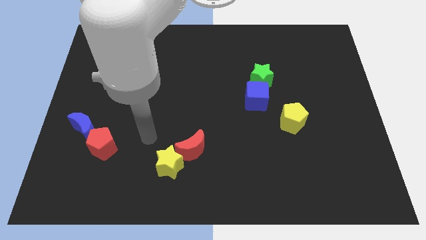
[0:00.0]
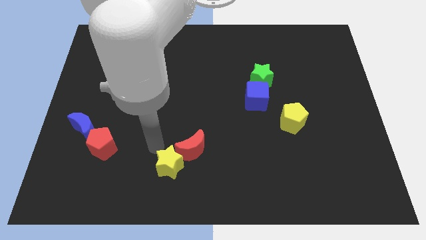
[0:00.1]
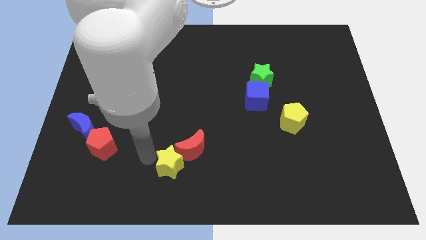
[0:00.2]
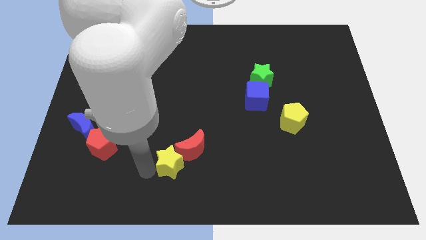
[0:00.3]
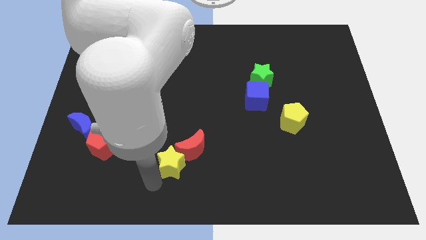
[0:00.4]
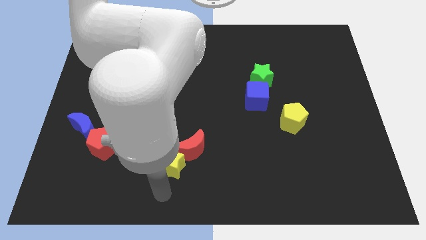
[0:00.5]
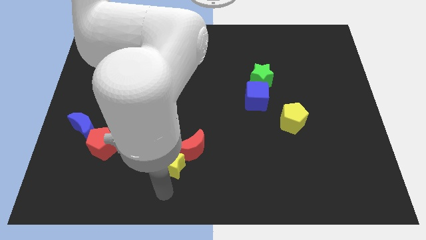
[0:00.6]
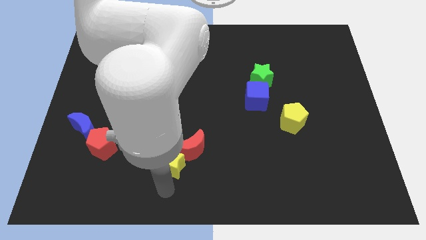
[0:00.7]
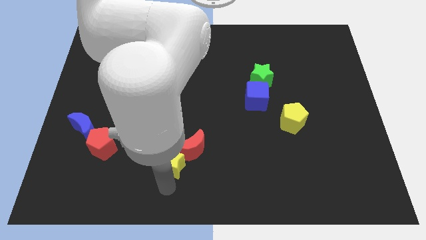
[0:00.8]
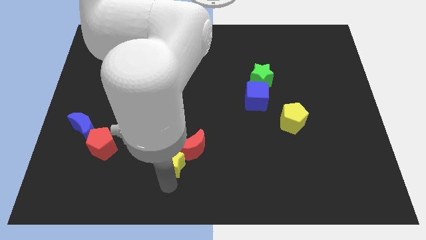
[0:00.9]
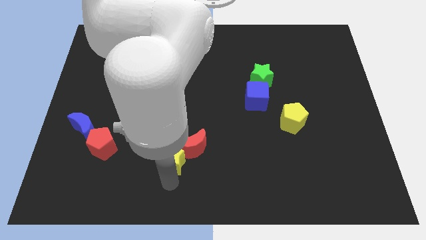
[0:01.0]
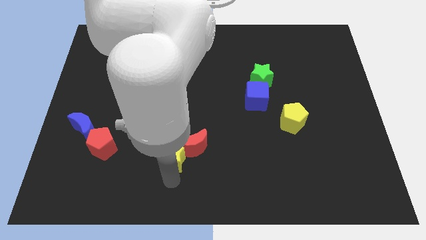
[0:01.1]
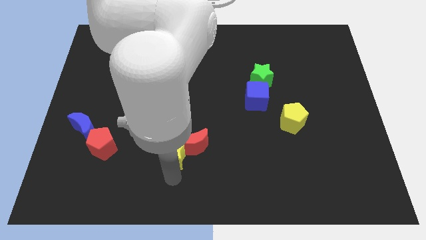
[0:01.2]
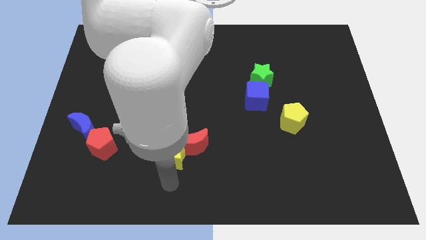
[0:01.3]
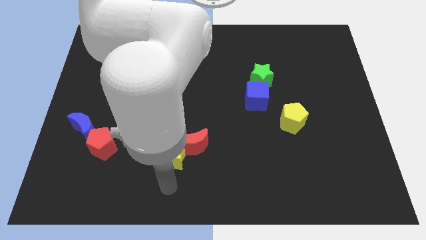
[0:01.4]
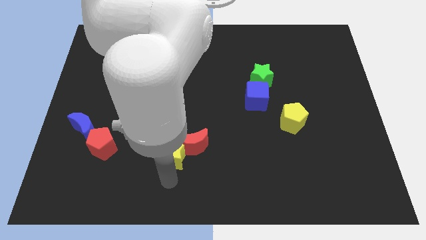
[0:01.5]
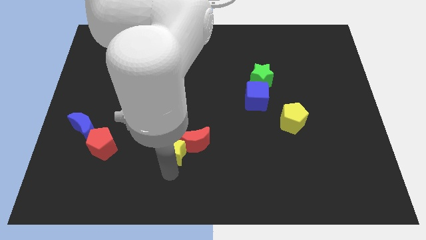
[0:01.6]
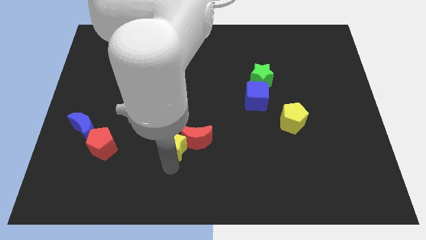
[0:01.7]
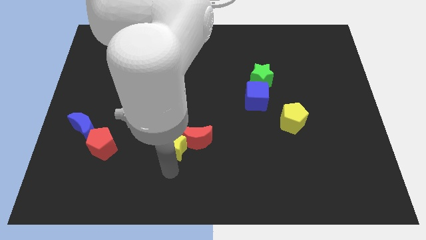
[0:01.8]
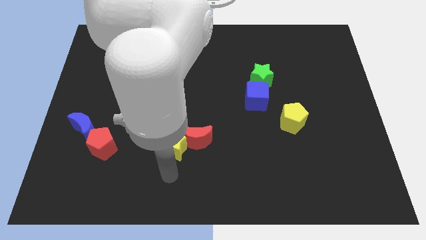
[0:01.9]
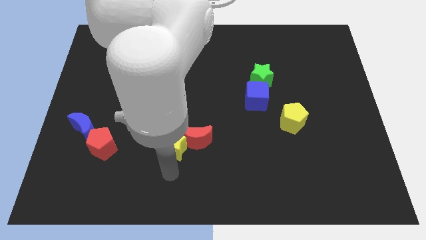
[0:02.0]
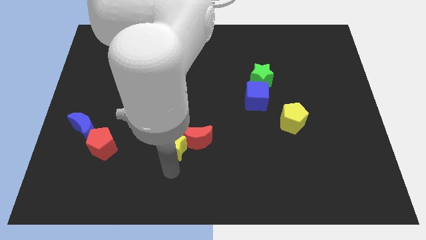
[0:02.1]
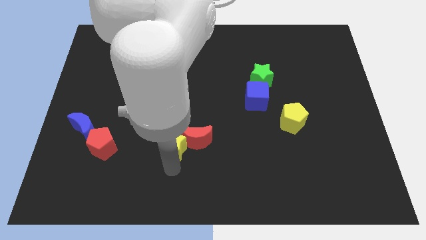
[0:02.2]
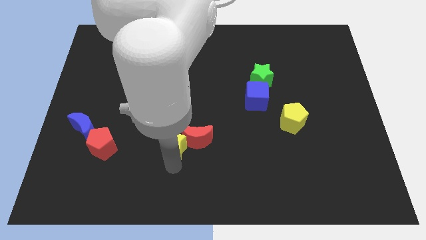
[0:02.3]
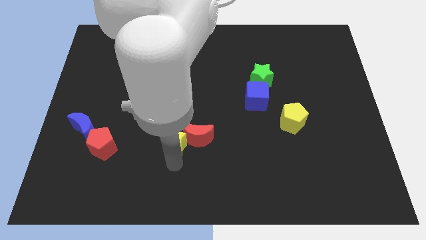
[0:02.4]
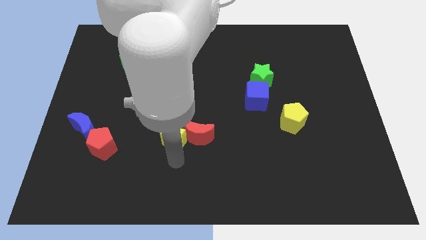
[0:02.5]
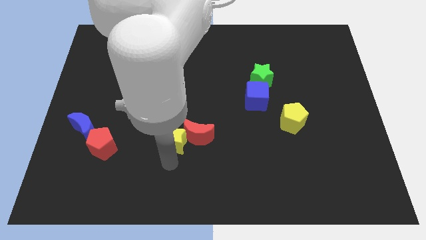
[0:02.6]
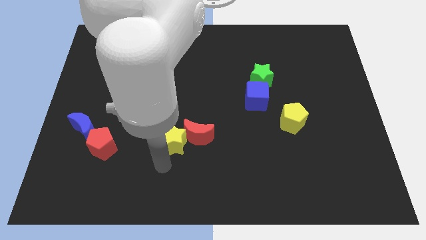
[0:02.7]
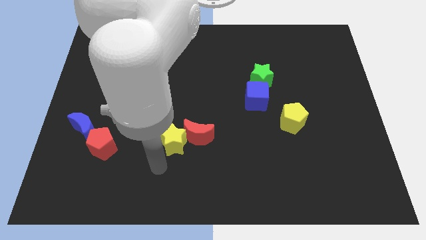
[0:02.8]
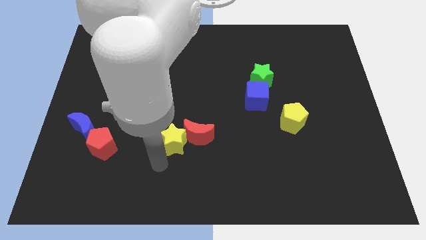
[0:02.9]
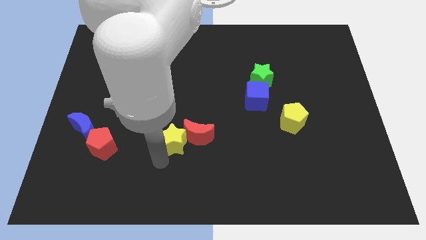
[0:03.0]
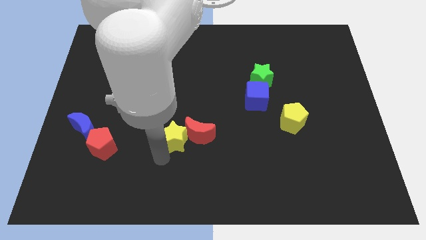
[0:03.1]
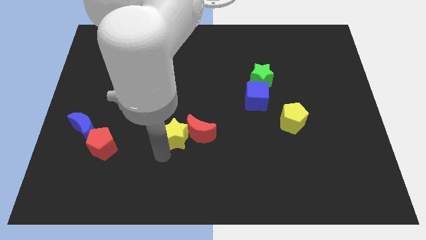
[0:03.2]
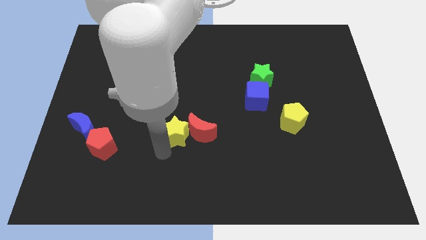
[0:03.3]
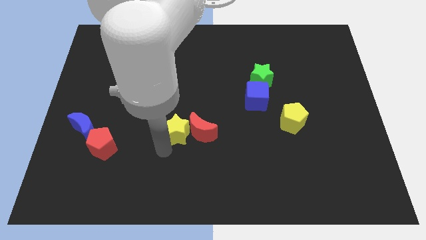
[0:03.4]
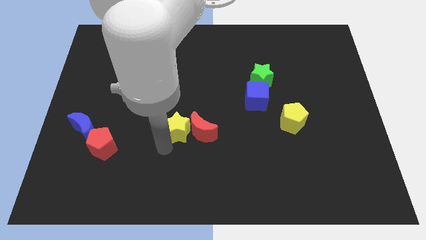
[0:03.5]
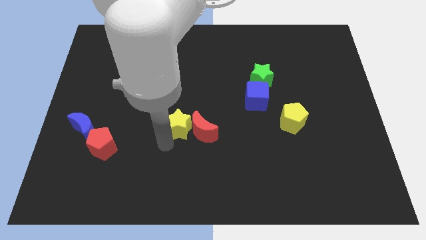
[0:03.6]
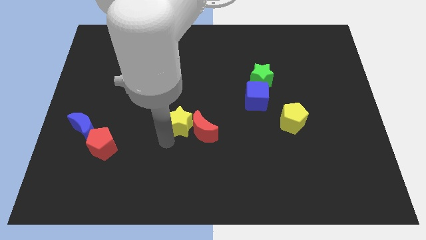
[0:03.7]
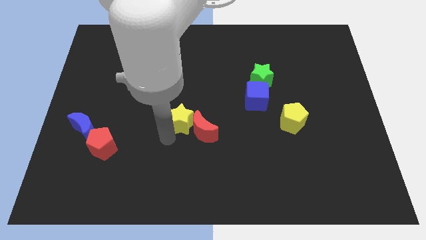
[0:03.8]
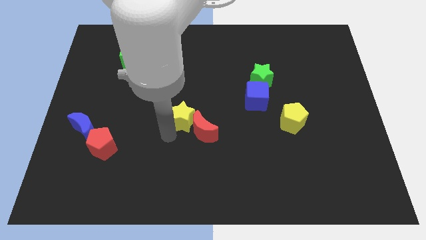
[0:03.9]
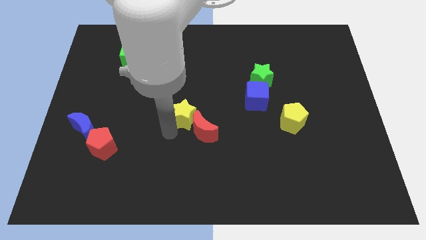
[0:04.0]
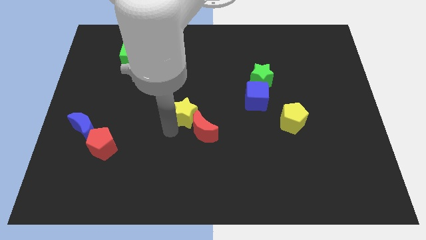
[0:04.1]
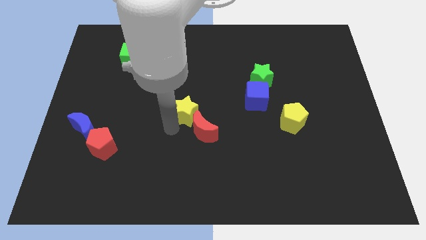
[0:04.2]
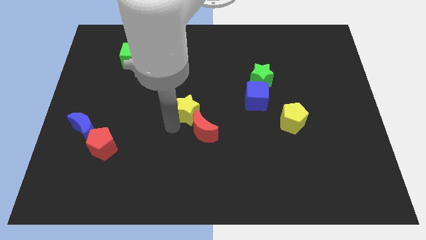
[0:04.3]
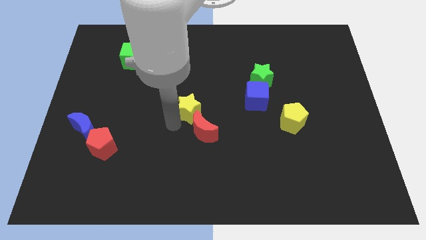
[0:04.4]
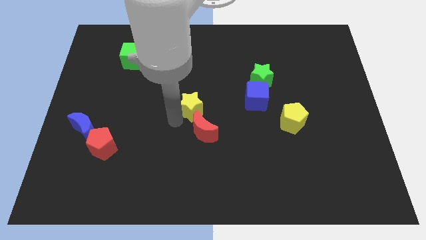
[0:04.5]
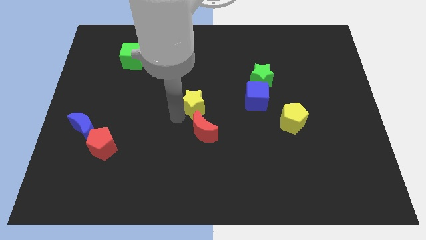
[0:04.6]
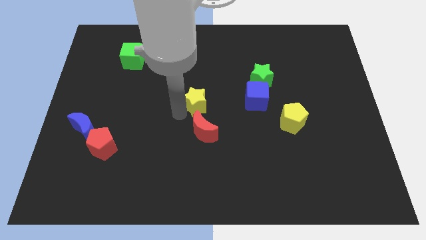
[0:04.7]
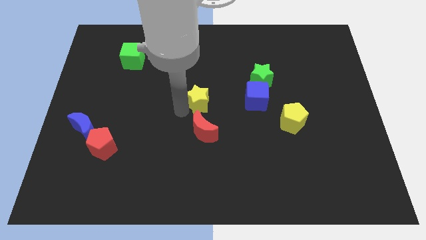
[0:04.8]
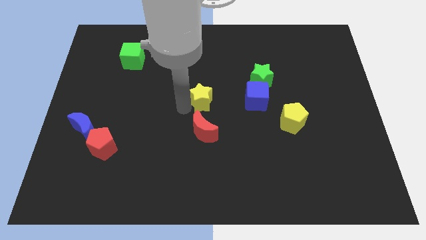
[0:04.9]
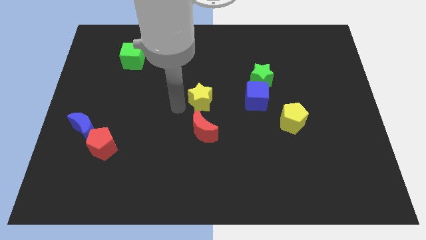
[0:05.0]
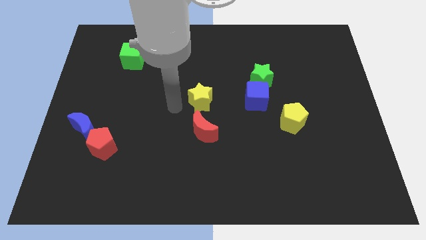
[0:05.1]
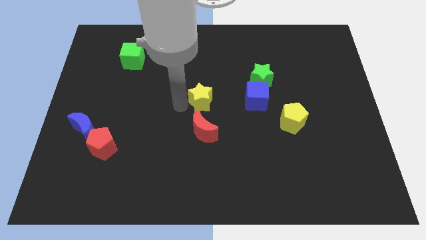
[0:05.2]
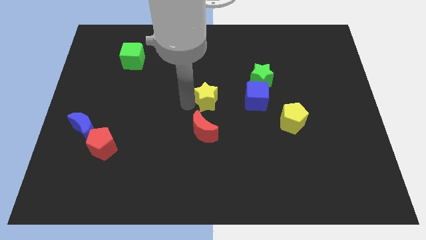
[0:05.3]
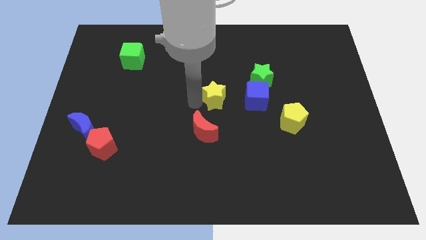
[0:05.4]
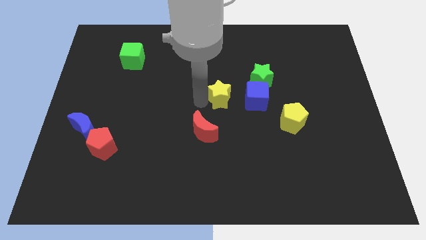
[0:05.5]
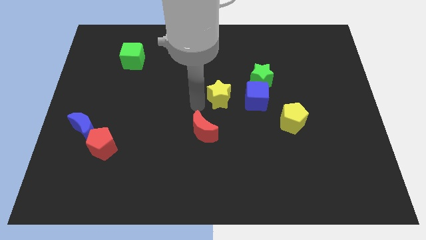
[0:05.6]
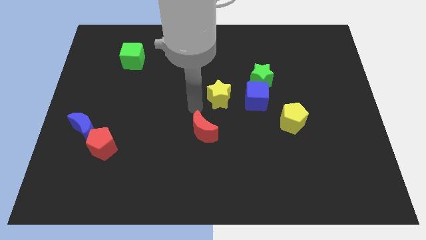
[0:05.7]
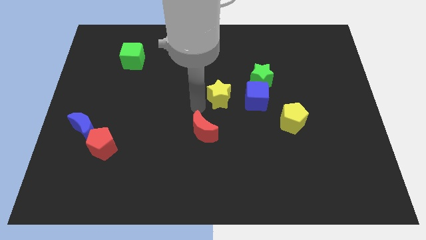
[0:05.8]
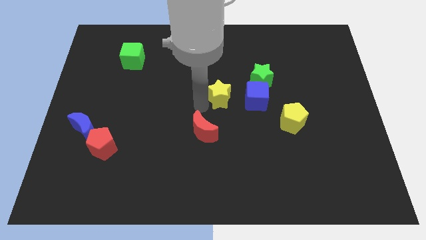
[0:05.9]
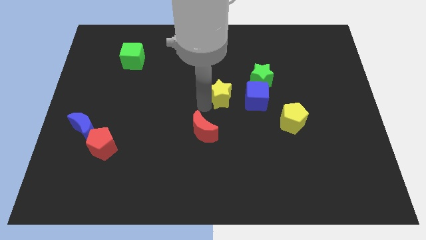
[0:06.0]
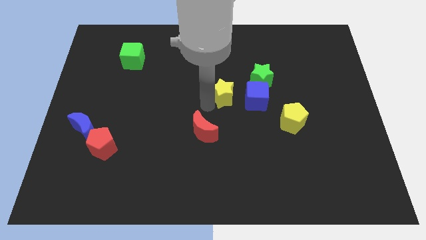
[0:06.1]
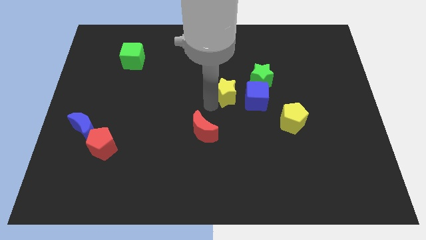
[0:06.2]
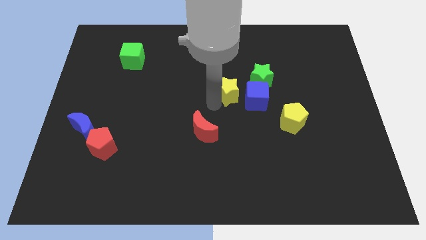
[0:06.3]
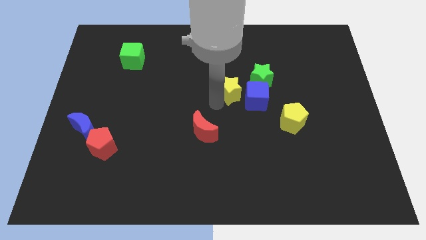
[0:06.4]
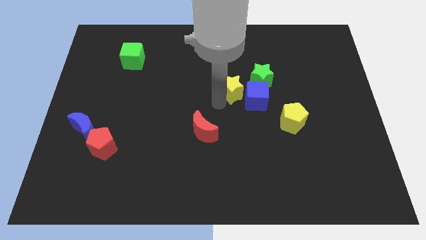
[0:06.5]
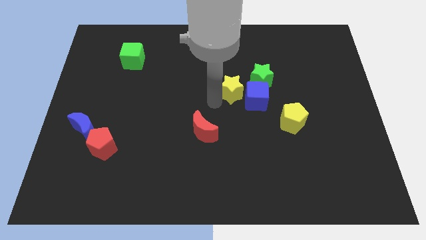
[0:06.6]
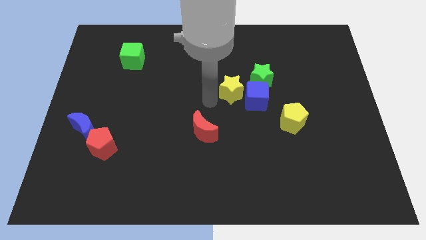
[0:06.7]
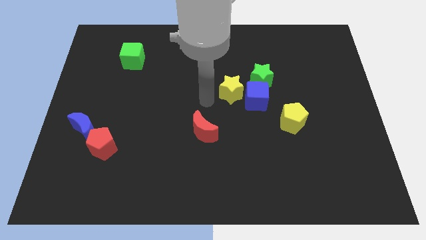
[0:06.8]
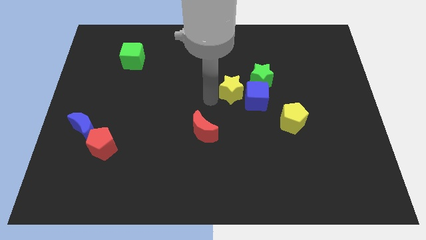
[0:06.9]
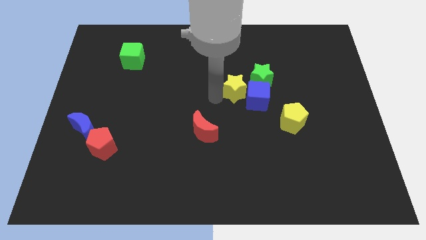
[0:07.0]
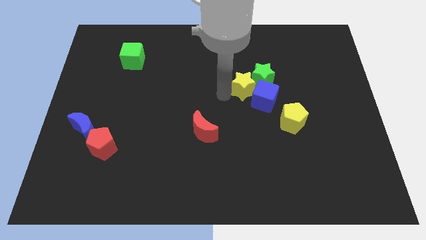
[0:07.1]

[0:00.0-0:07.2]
move the yellow star next to the green star
